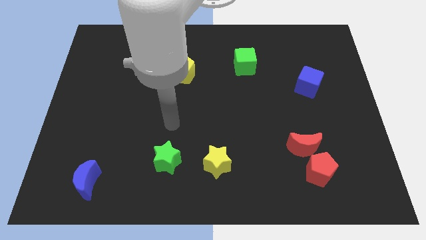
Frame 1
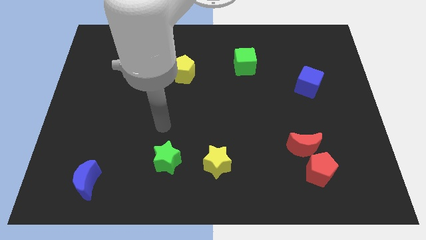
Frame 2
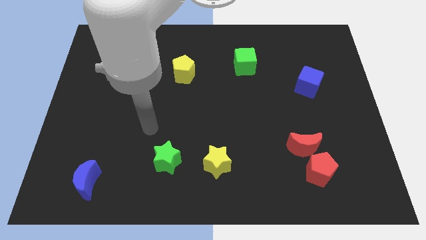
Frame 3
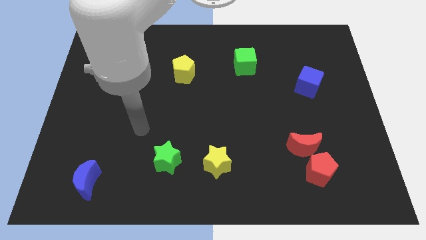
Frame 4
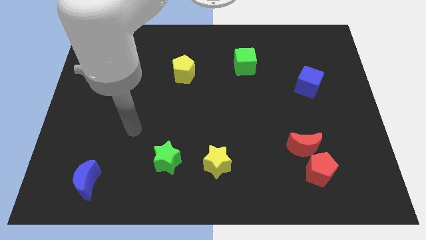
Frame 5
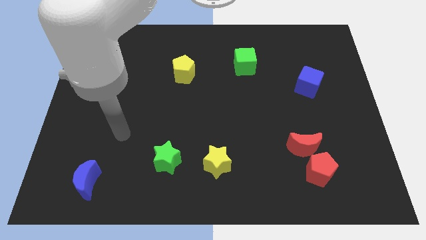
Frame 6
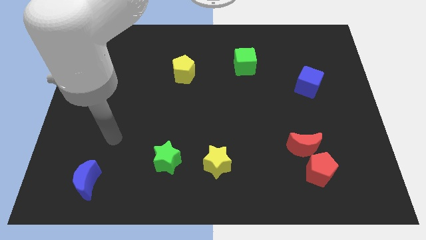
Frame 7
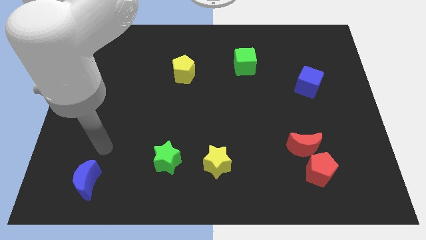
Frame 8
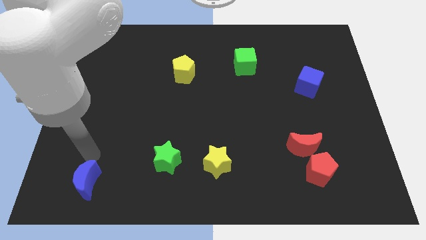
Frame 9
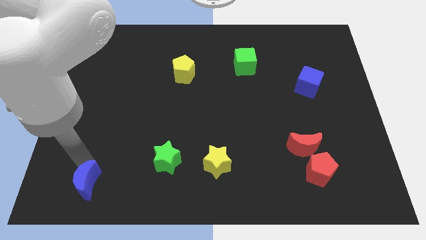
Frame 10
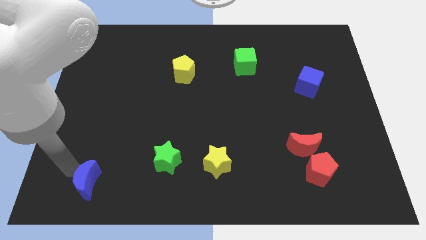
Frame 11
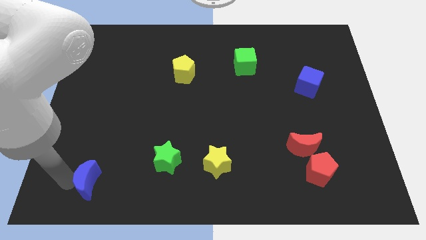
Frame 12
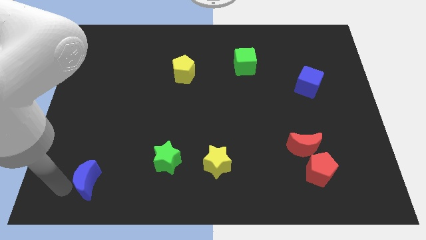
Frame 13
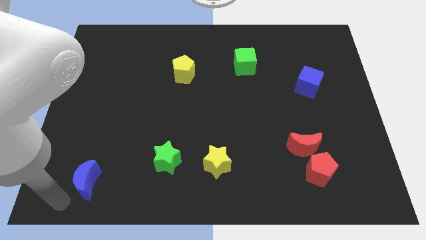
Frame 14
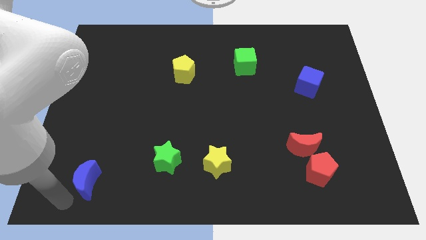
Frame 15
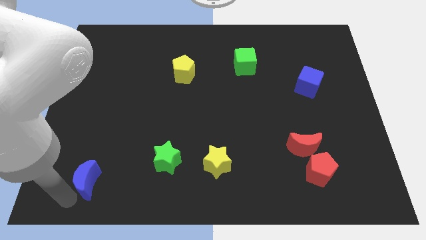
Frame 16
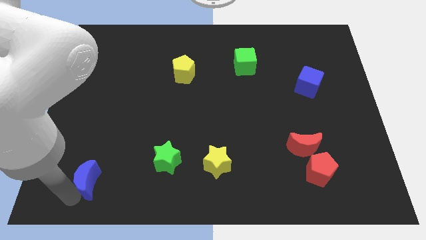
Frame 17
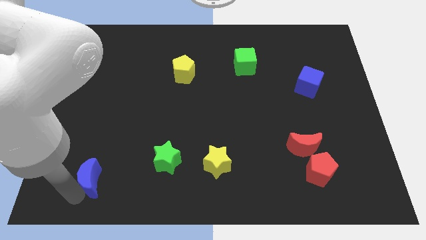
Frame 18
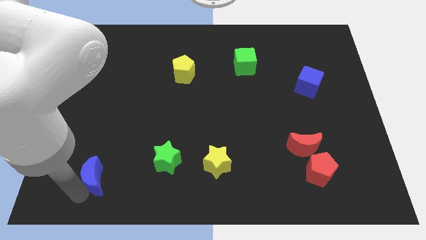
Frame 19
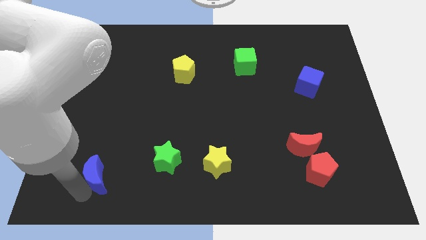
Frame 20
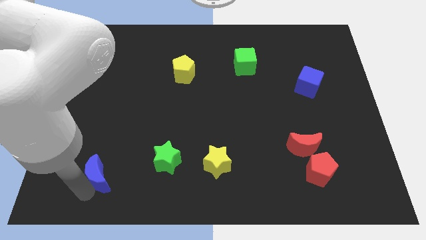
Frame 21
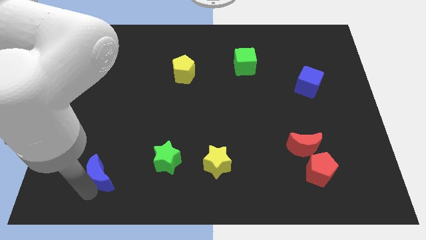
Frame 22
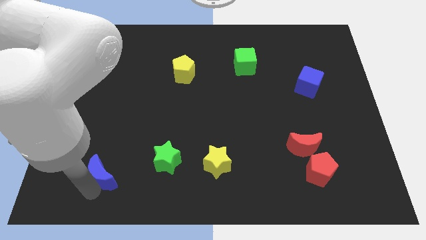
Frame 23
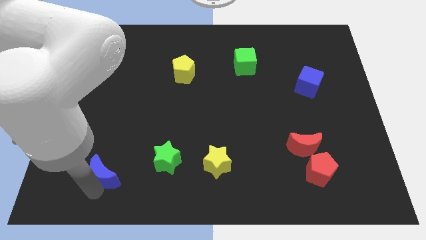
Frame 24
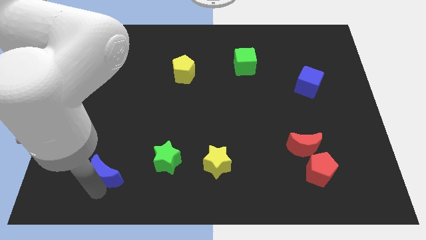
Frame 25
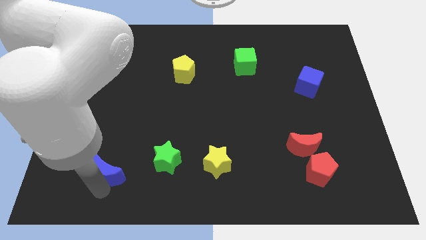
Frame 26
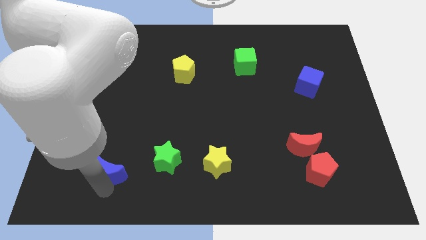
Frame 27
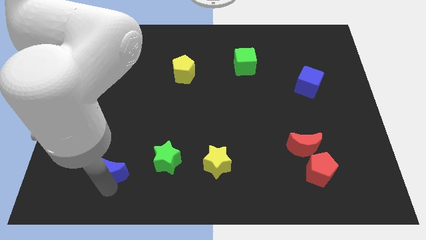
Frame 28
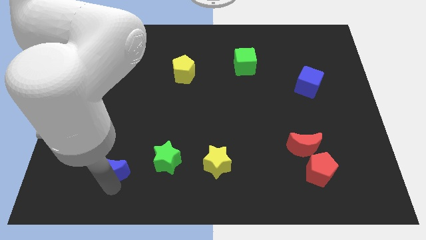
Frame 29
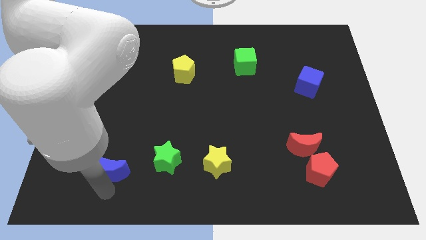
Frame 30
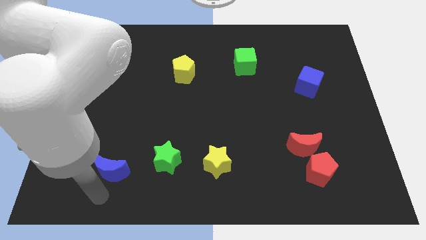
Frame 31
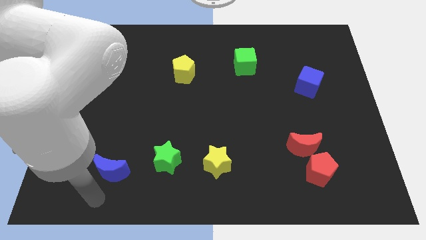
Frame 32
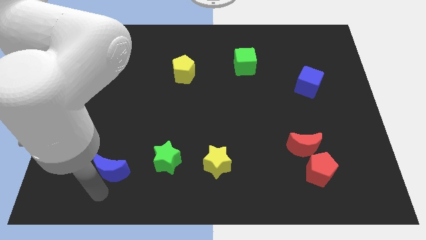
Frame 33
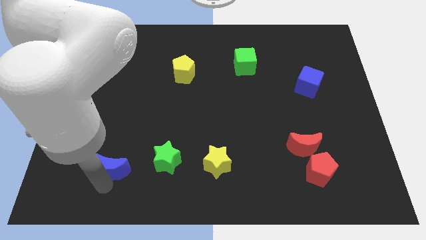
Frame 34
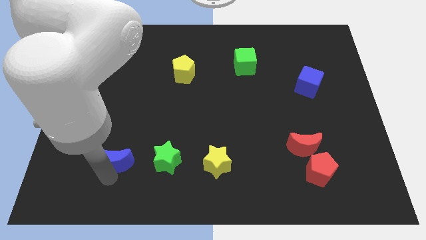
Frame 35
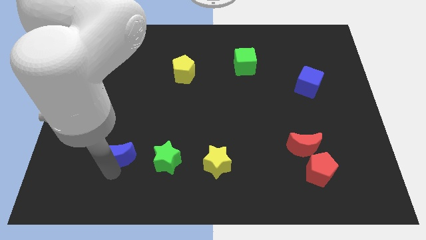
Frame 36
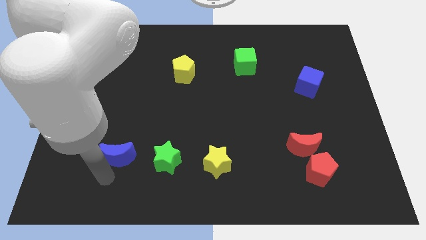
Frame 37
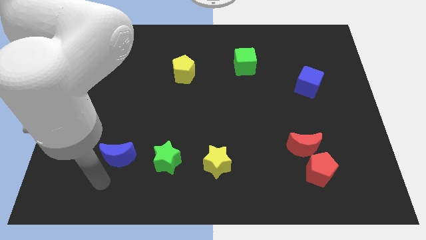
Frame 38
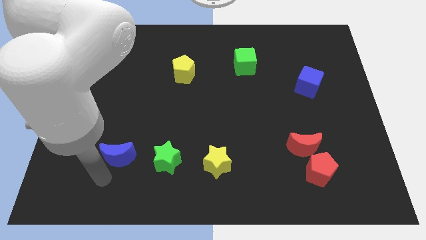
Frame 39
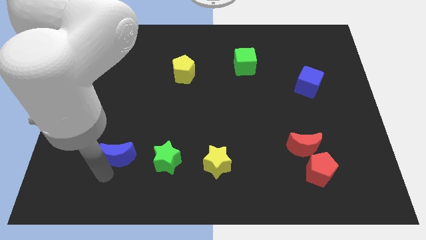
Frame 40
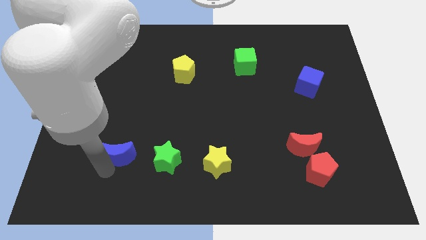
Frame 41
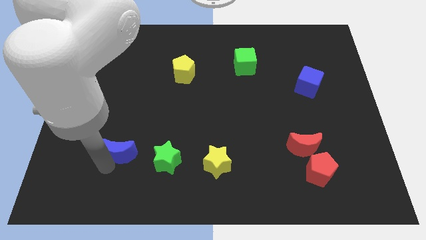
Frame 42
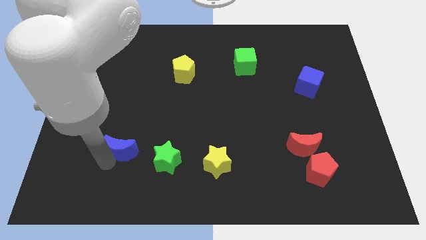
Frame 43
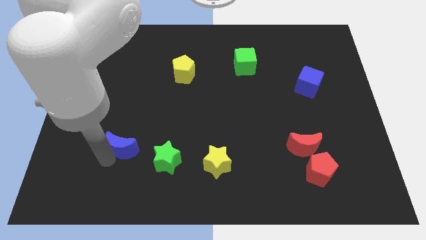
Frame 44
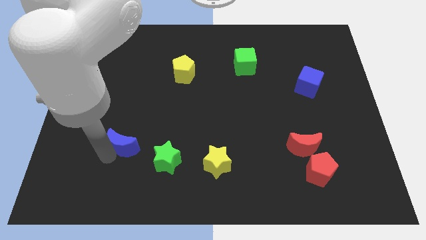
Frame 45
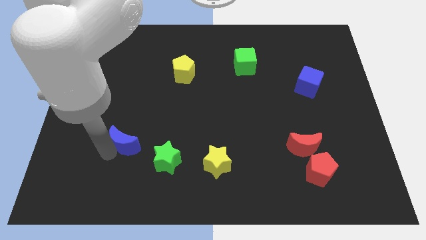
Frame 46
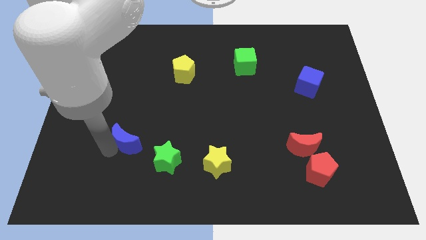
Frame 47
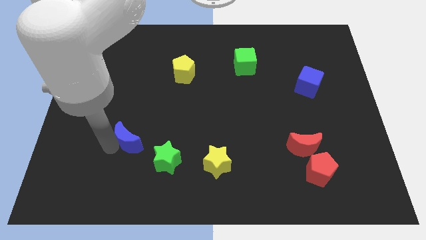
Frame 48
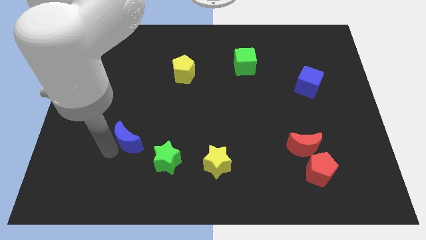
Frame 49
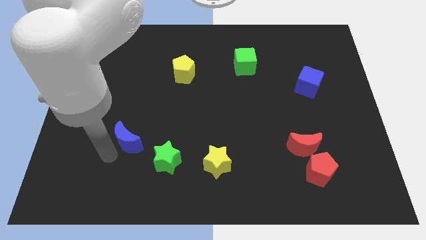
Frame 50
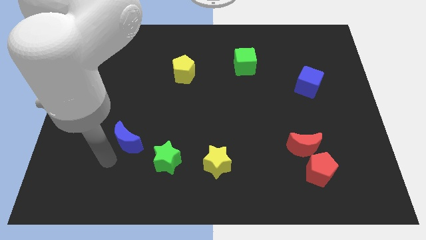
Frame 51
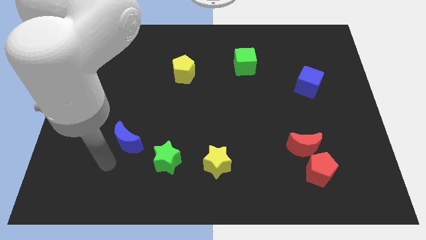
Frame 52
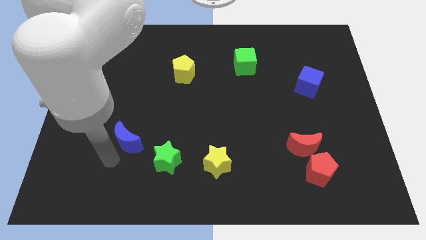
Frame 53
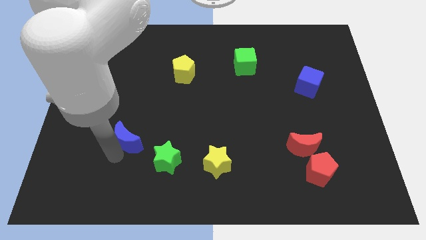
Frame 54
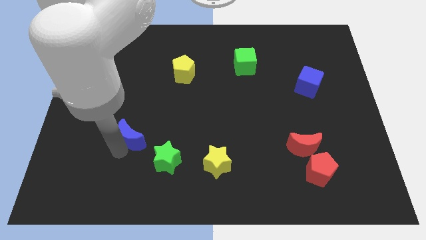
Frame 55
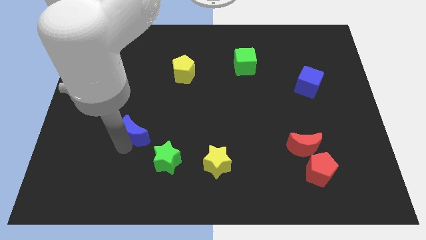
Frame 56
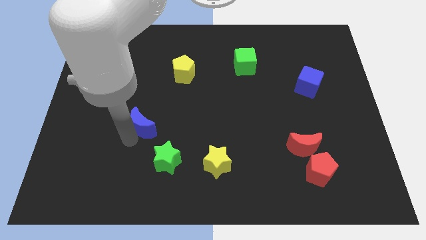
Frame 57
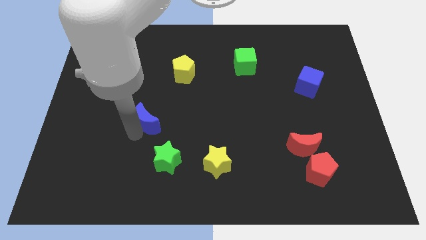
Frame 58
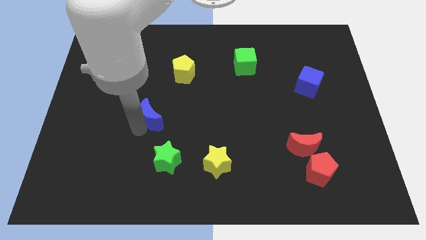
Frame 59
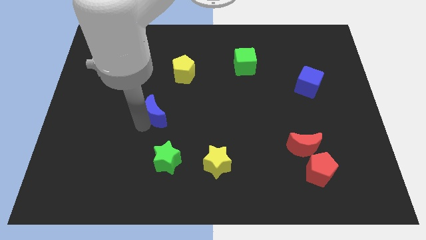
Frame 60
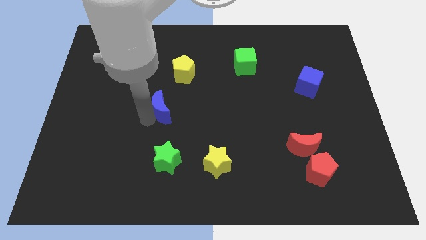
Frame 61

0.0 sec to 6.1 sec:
push the blue moon to the bottom side of the yellow pentagon

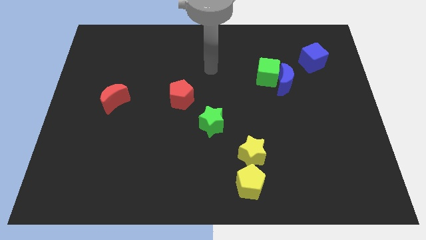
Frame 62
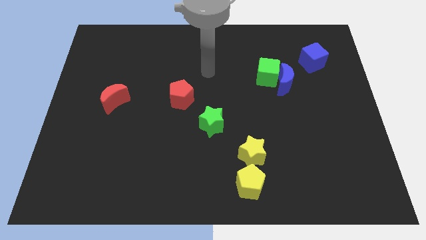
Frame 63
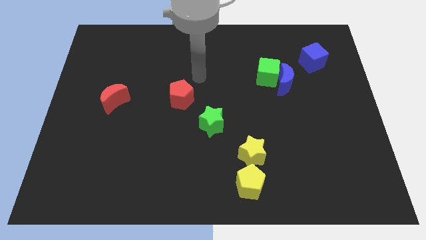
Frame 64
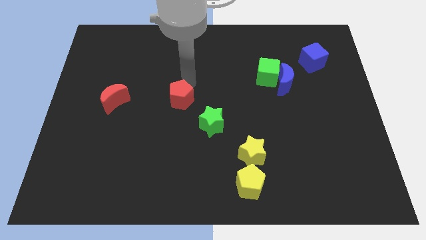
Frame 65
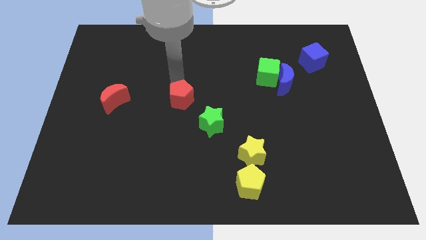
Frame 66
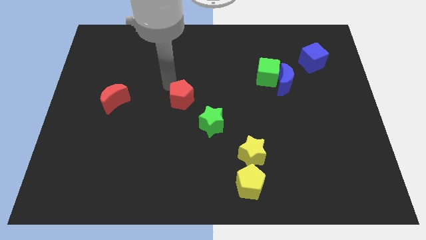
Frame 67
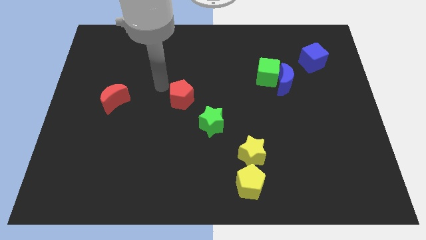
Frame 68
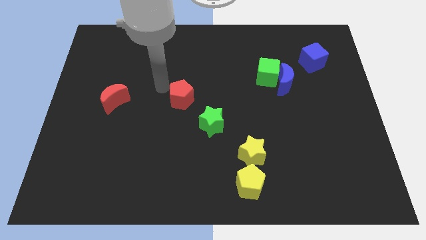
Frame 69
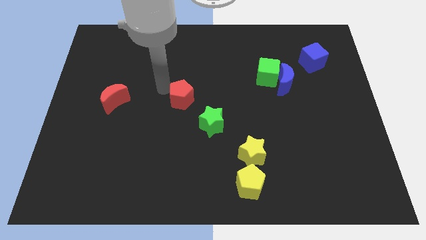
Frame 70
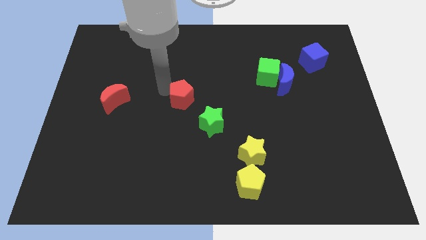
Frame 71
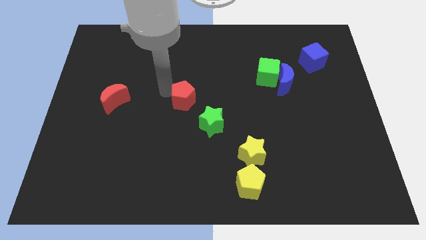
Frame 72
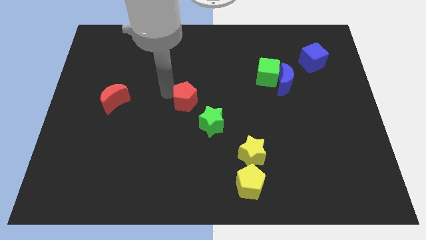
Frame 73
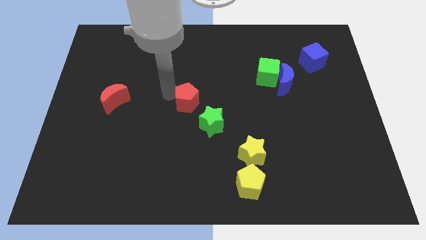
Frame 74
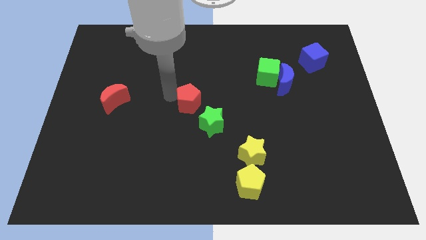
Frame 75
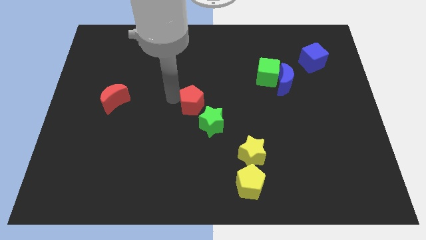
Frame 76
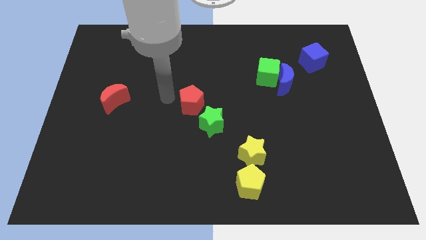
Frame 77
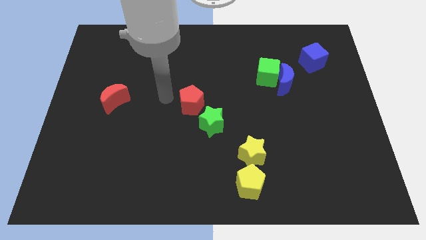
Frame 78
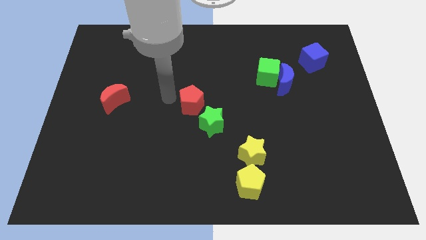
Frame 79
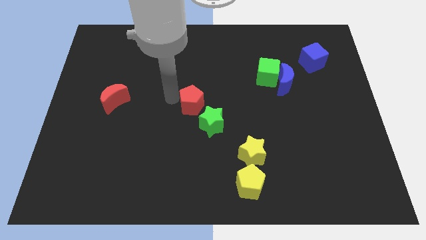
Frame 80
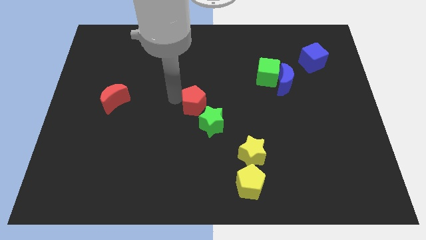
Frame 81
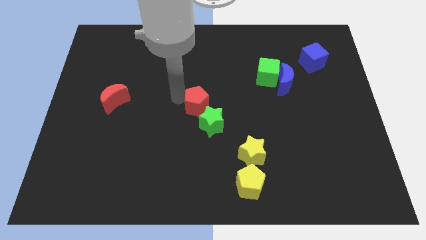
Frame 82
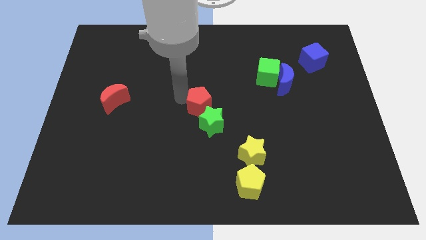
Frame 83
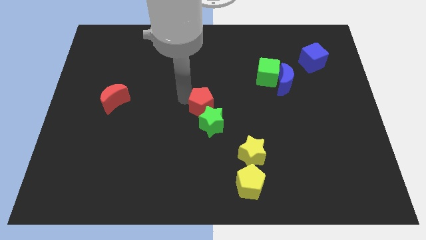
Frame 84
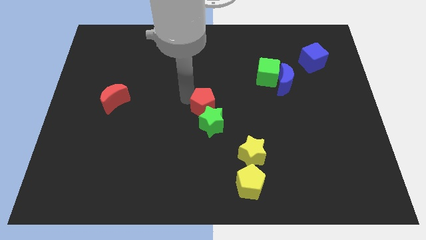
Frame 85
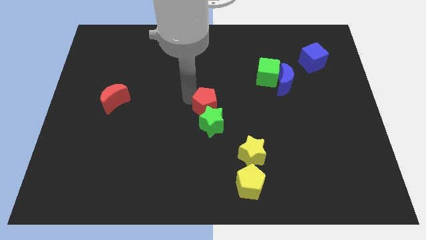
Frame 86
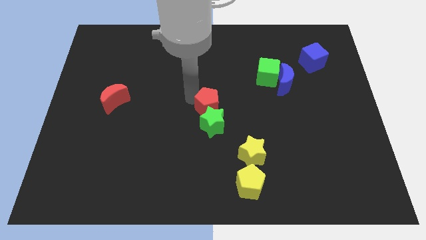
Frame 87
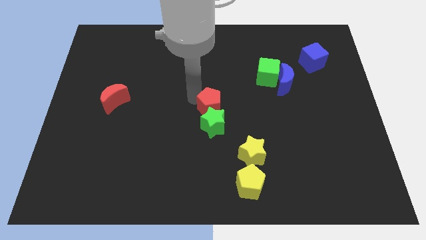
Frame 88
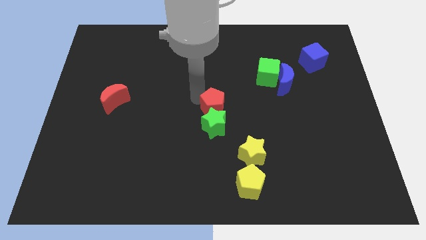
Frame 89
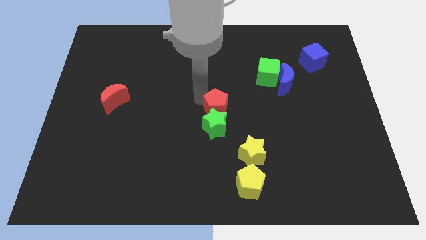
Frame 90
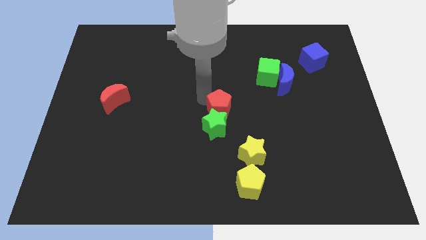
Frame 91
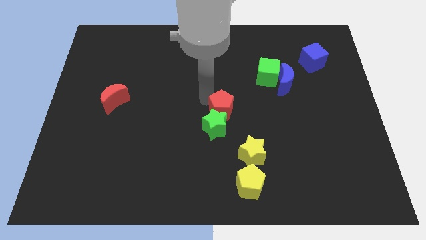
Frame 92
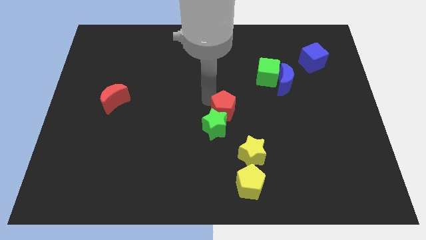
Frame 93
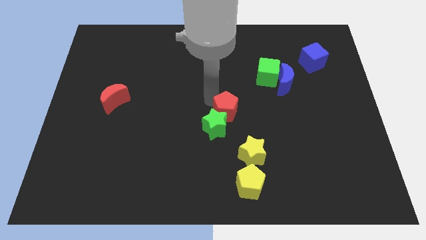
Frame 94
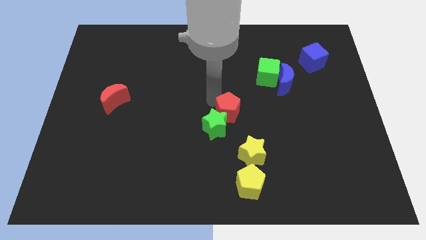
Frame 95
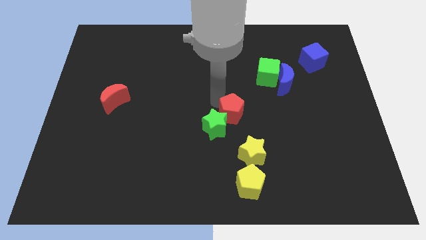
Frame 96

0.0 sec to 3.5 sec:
push the red pentagon just right of the green star
